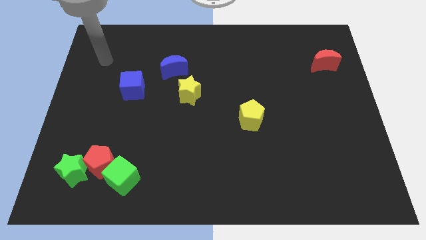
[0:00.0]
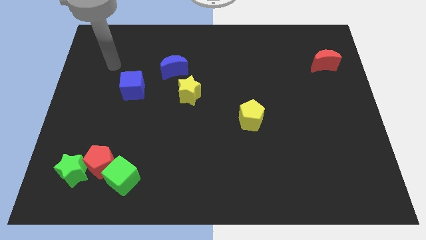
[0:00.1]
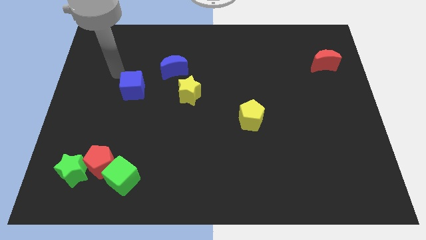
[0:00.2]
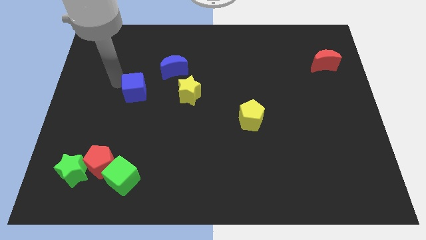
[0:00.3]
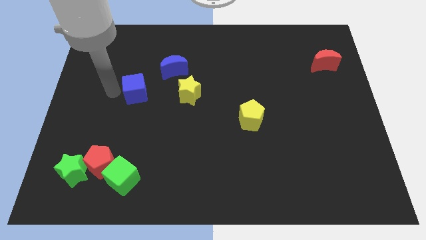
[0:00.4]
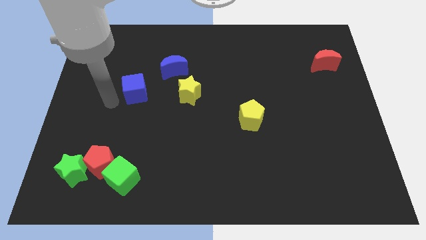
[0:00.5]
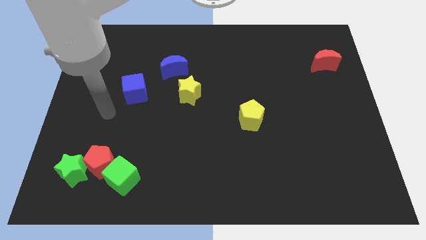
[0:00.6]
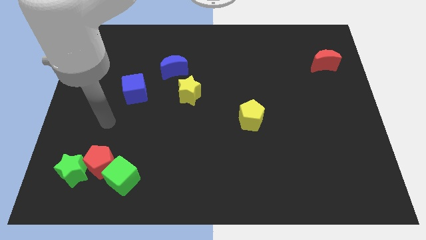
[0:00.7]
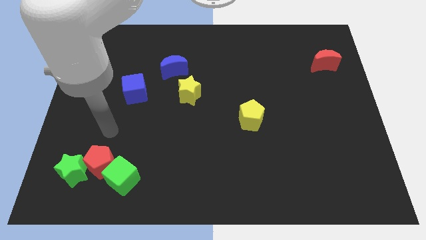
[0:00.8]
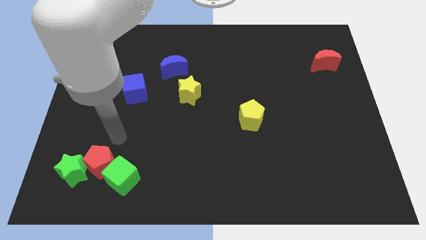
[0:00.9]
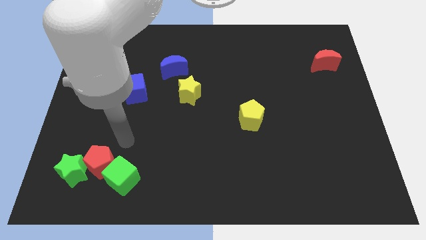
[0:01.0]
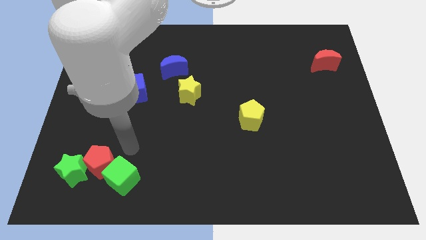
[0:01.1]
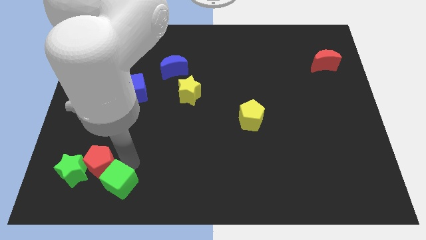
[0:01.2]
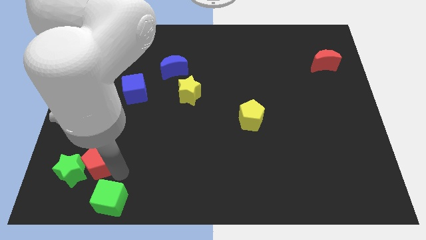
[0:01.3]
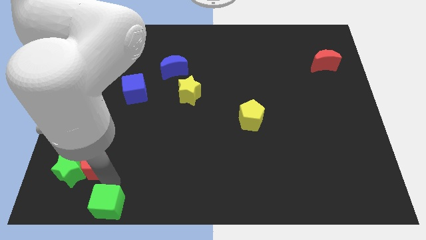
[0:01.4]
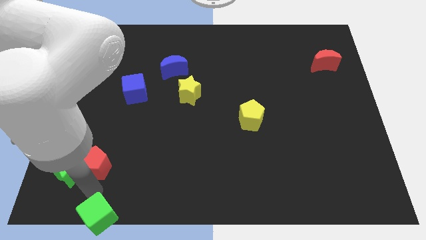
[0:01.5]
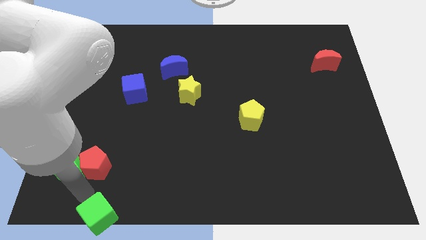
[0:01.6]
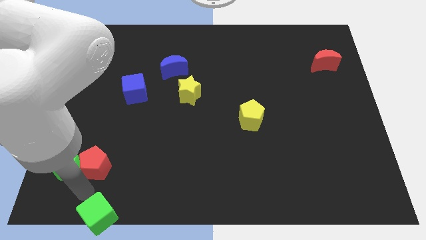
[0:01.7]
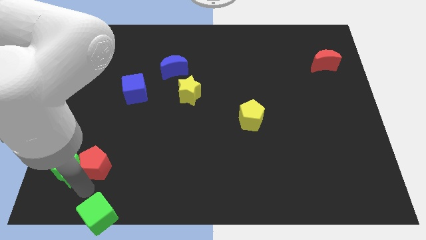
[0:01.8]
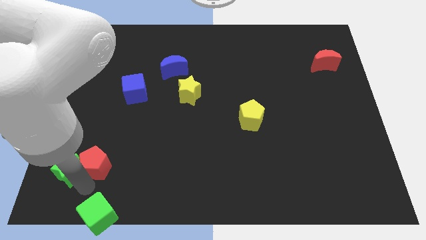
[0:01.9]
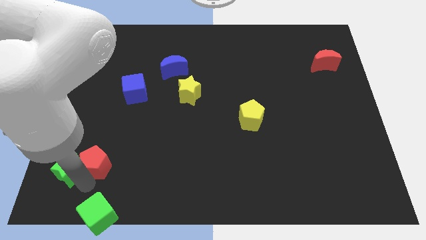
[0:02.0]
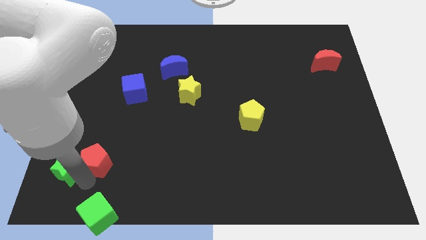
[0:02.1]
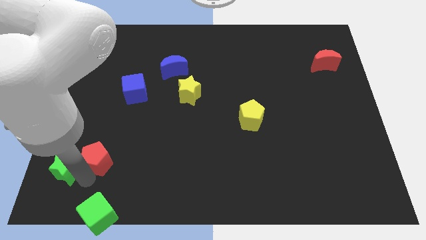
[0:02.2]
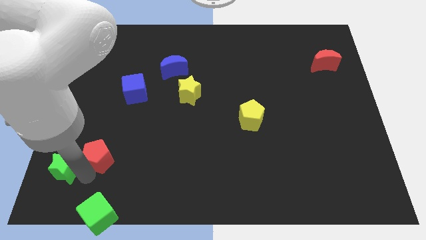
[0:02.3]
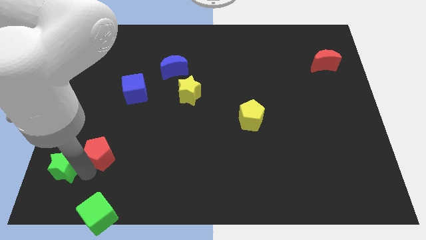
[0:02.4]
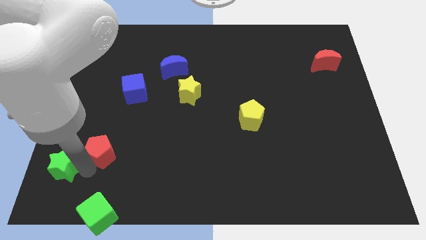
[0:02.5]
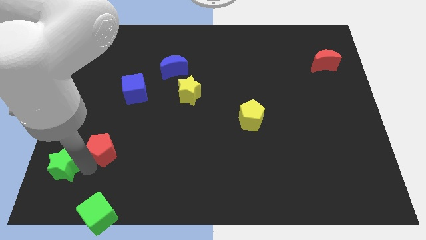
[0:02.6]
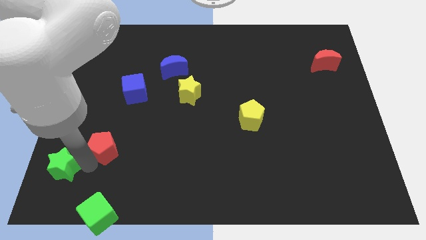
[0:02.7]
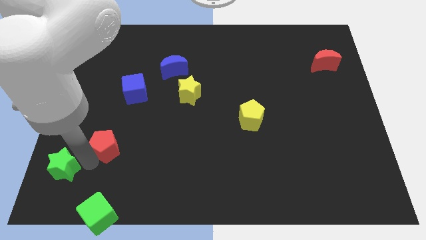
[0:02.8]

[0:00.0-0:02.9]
pull the red pentagon apart from the green star and green cube

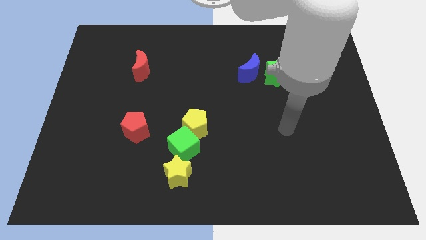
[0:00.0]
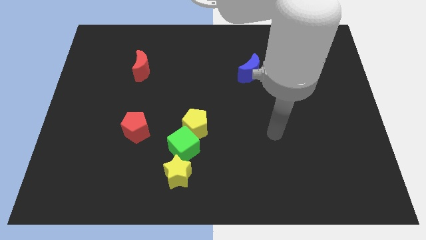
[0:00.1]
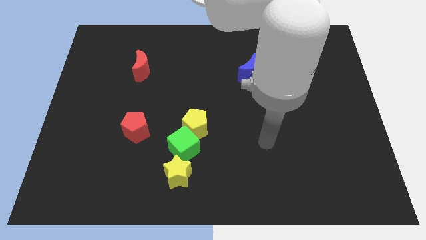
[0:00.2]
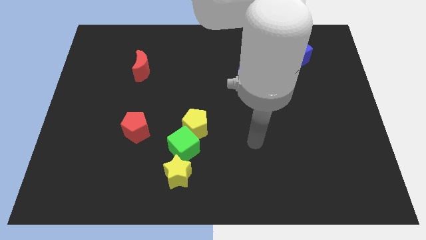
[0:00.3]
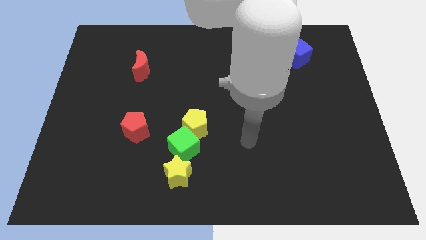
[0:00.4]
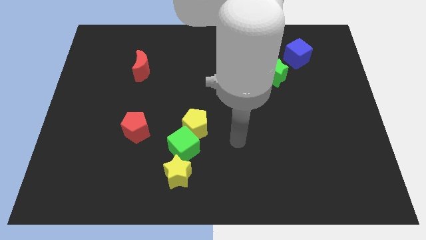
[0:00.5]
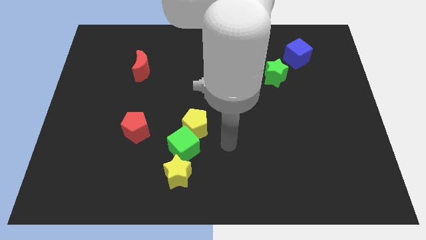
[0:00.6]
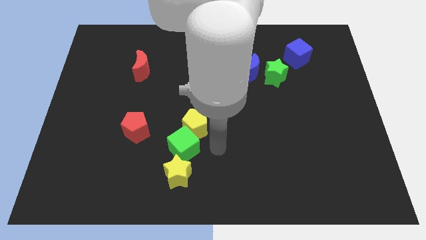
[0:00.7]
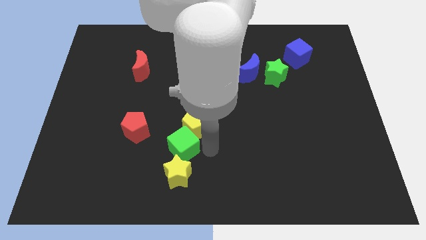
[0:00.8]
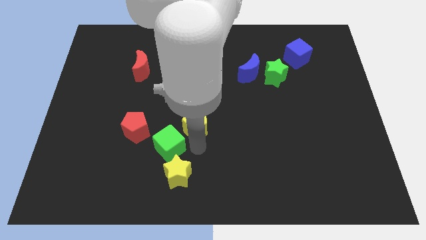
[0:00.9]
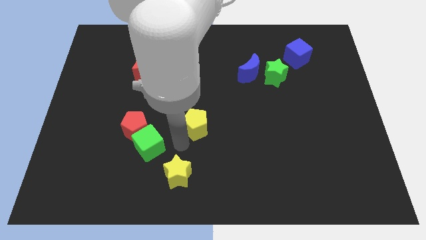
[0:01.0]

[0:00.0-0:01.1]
pull the yellow pentagon apart from the green cube

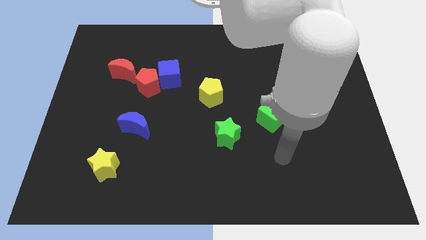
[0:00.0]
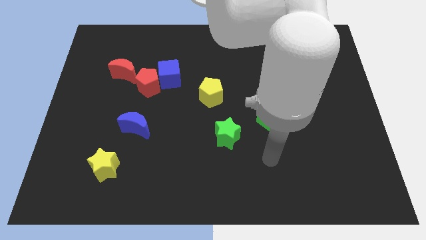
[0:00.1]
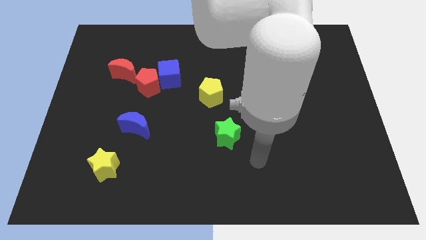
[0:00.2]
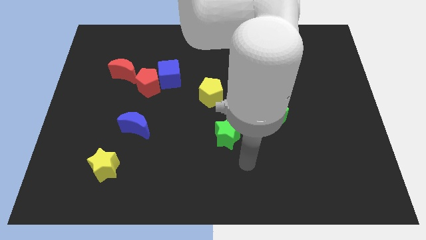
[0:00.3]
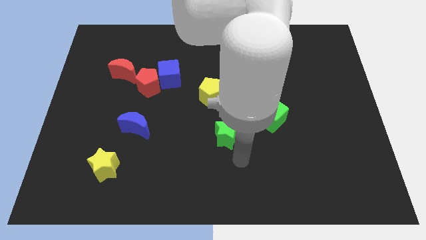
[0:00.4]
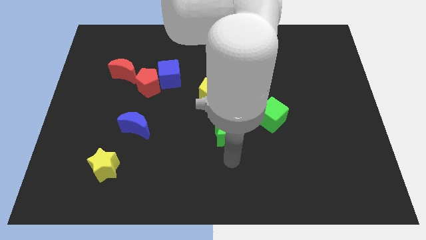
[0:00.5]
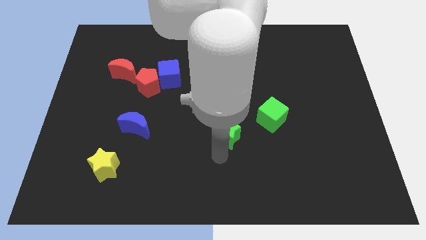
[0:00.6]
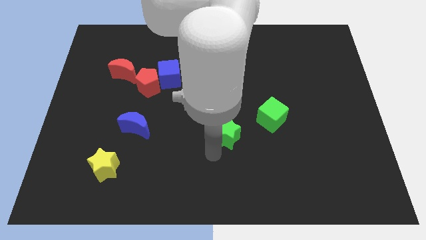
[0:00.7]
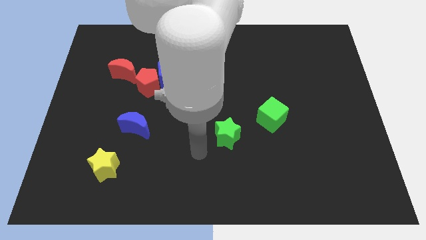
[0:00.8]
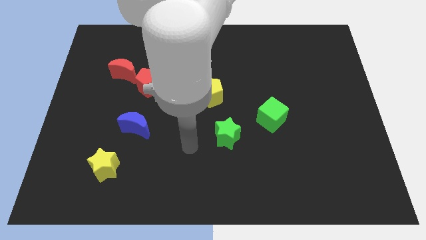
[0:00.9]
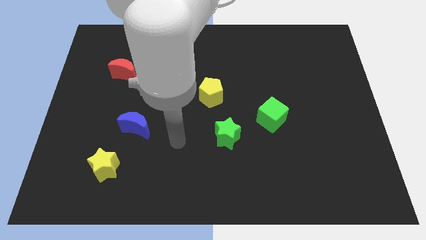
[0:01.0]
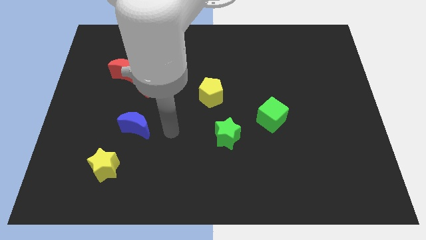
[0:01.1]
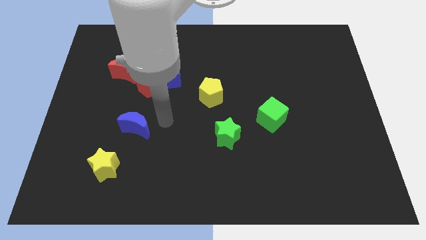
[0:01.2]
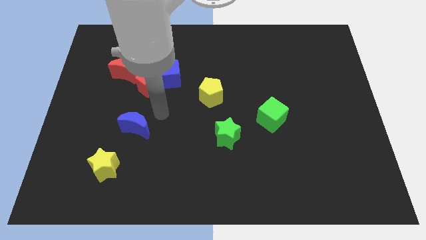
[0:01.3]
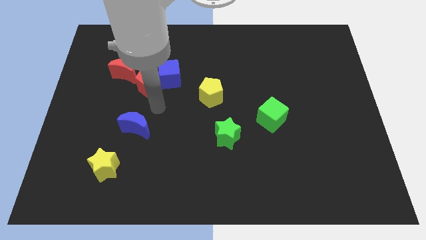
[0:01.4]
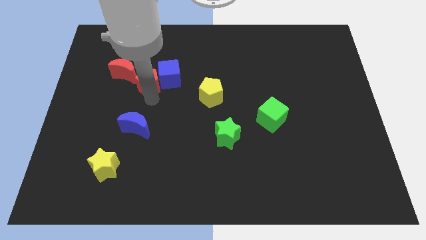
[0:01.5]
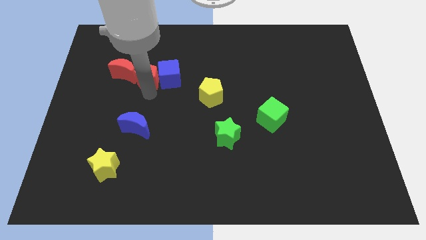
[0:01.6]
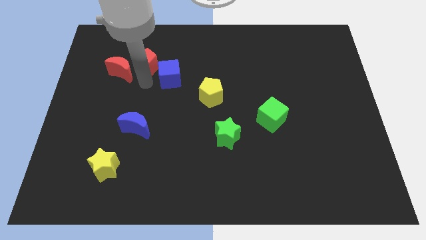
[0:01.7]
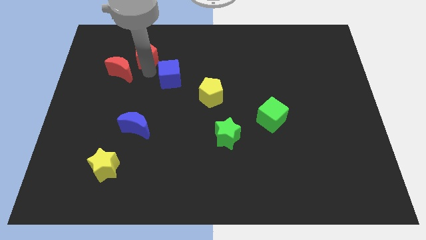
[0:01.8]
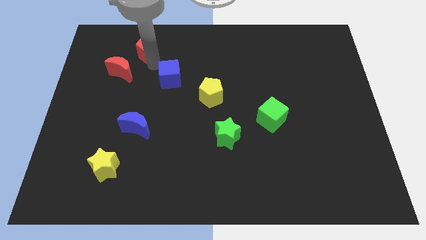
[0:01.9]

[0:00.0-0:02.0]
pull the blue cube apart from the red pentagon

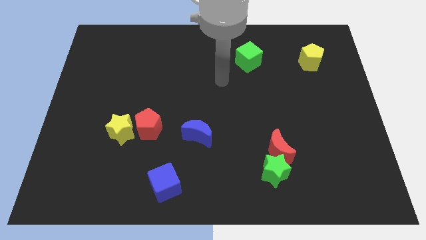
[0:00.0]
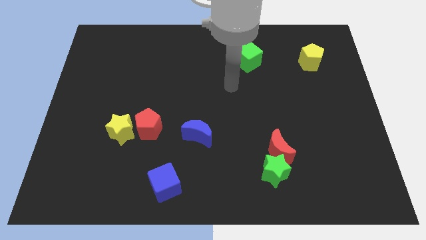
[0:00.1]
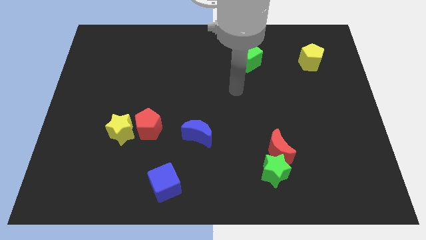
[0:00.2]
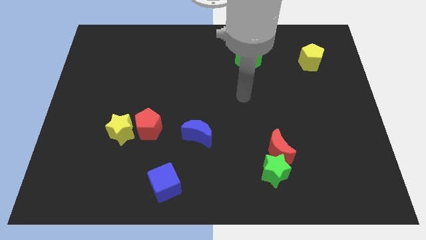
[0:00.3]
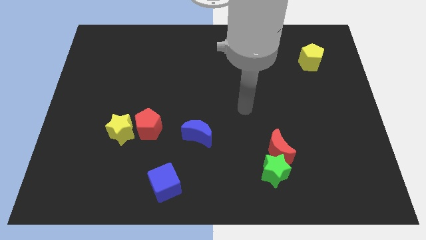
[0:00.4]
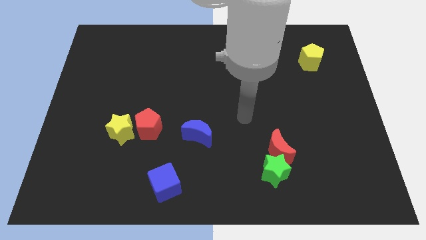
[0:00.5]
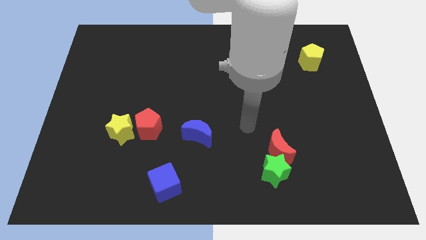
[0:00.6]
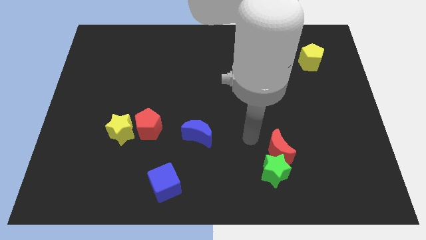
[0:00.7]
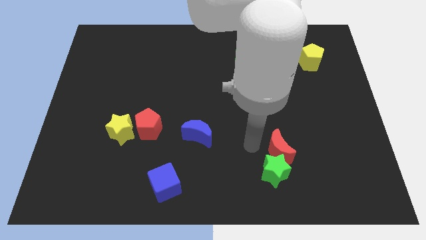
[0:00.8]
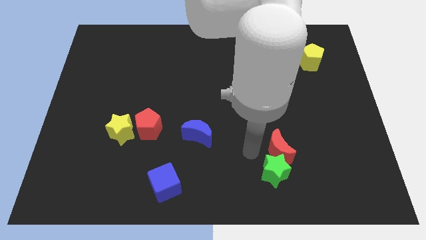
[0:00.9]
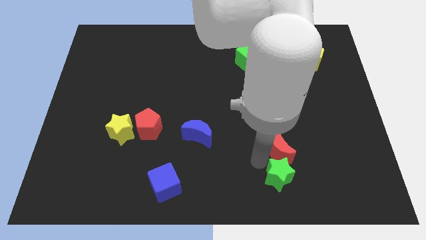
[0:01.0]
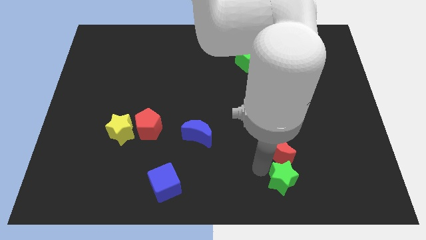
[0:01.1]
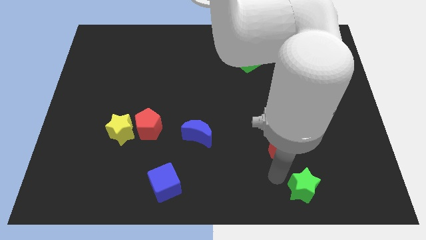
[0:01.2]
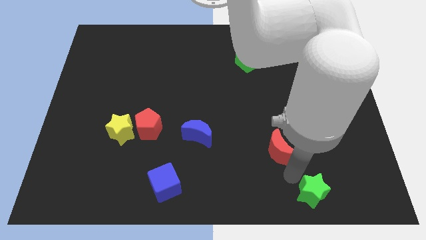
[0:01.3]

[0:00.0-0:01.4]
move the red moon away from the green star

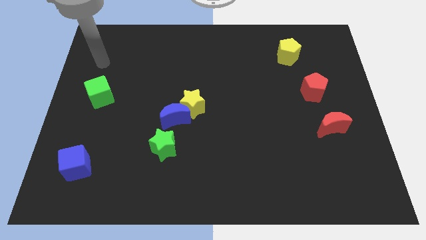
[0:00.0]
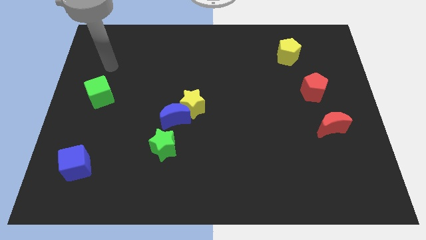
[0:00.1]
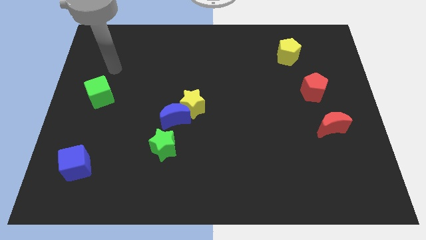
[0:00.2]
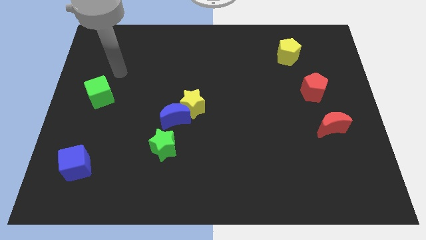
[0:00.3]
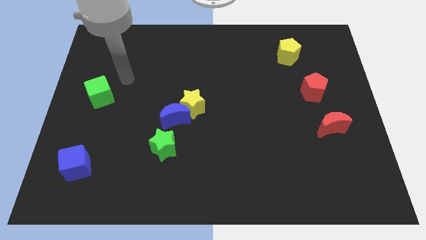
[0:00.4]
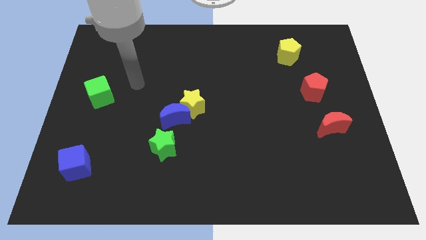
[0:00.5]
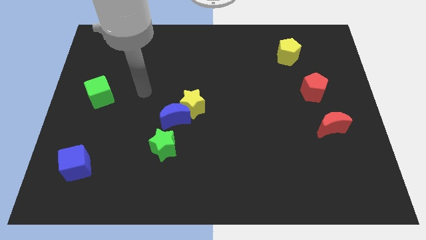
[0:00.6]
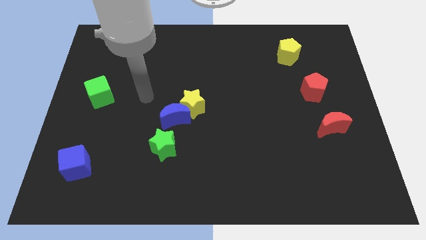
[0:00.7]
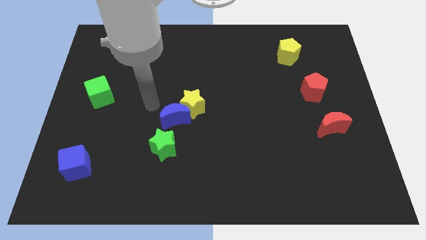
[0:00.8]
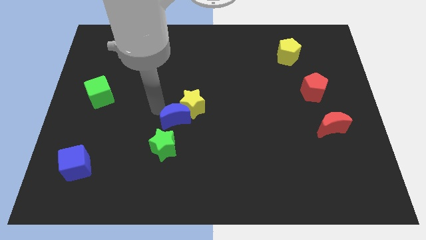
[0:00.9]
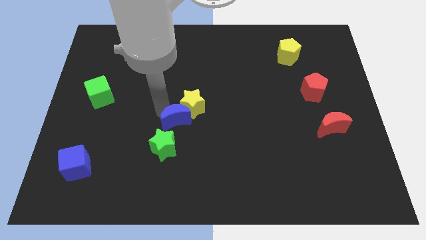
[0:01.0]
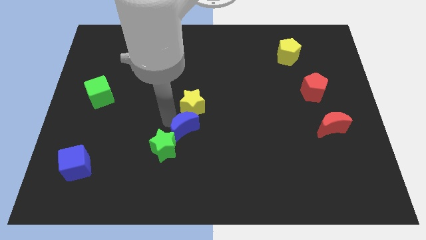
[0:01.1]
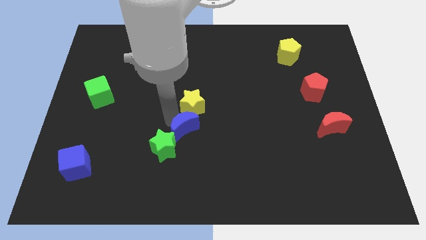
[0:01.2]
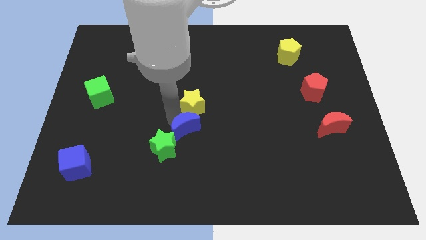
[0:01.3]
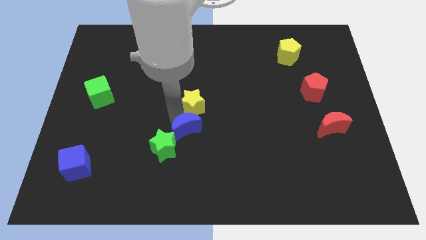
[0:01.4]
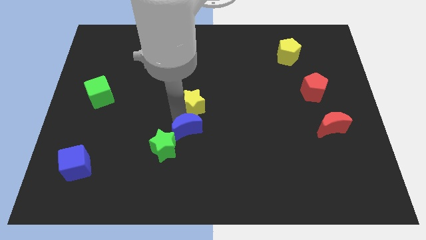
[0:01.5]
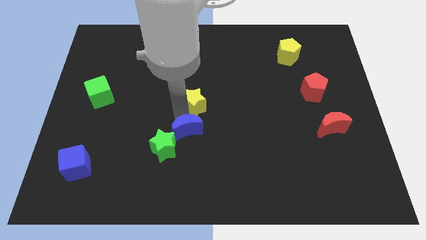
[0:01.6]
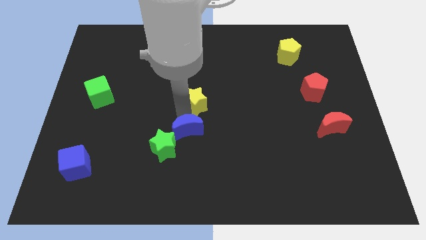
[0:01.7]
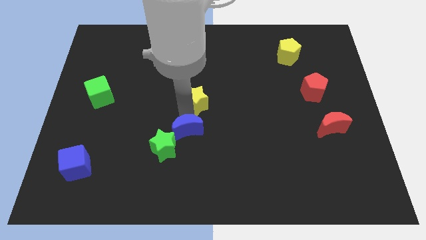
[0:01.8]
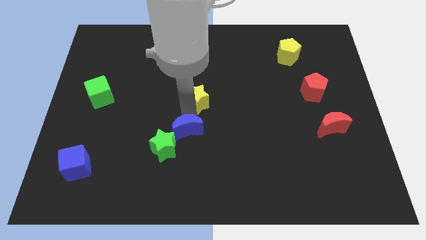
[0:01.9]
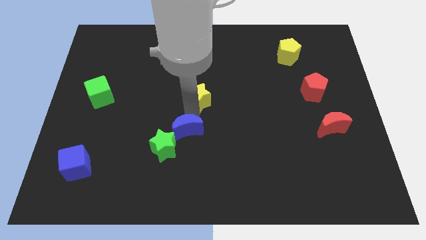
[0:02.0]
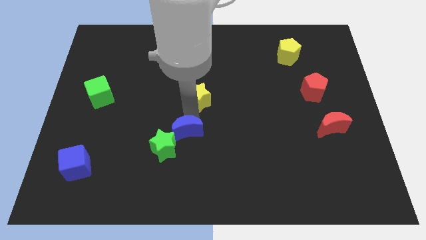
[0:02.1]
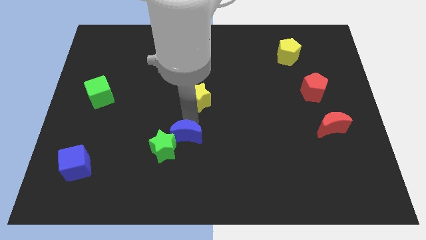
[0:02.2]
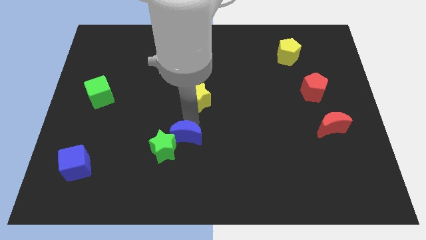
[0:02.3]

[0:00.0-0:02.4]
move the yellow star away from the blue moon
